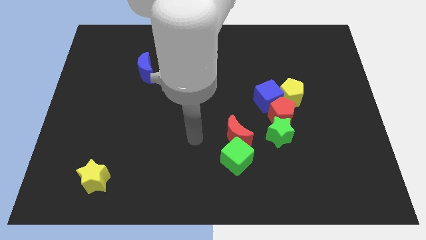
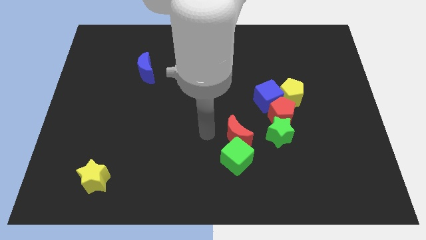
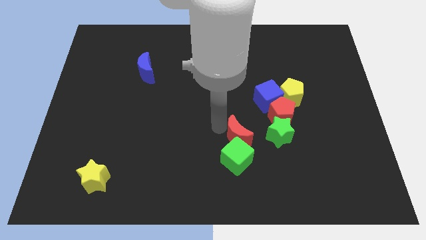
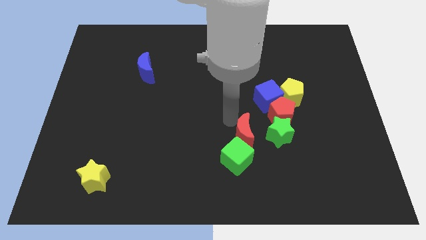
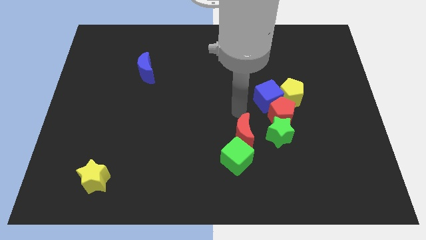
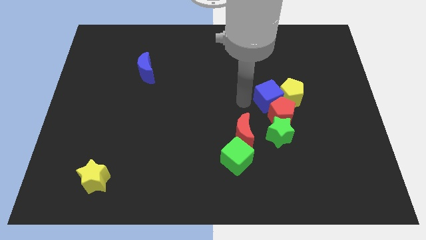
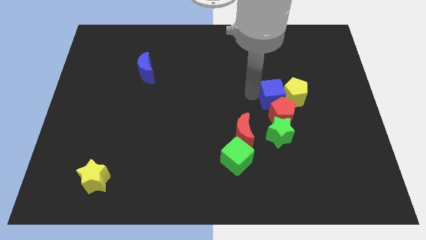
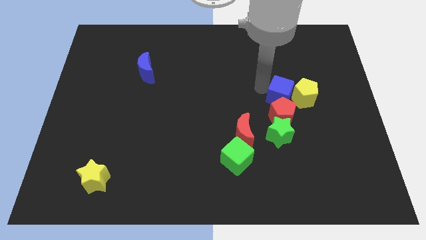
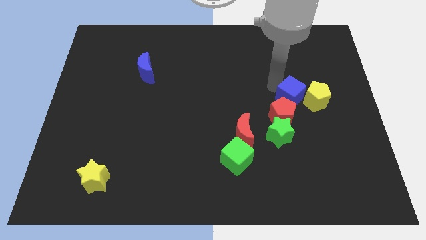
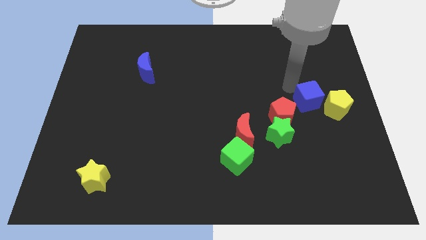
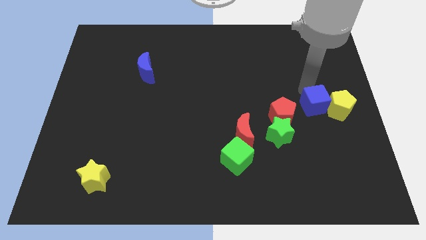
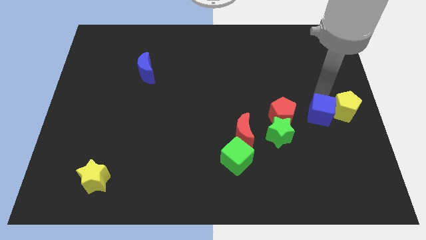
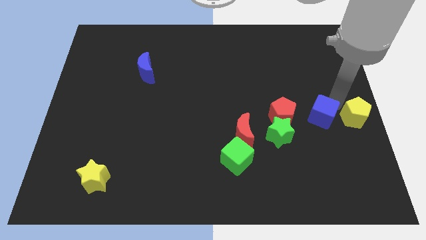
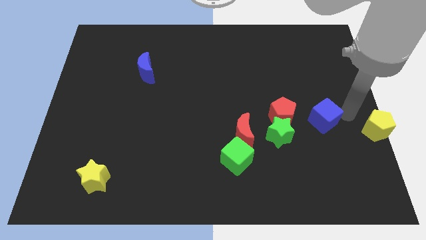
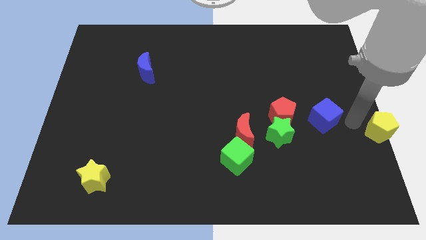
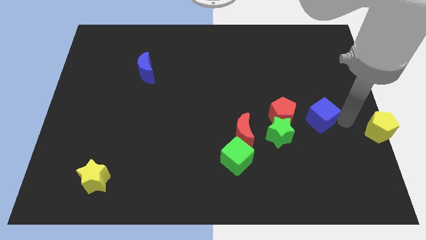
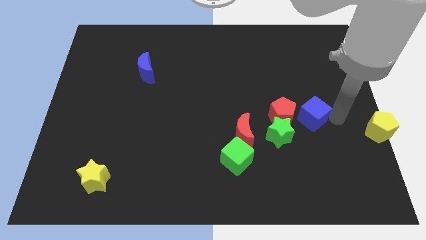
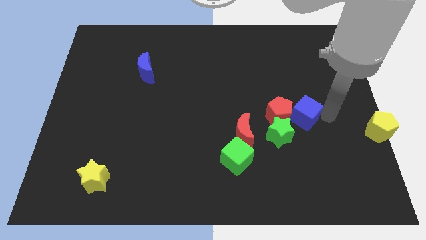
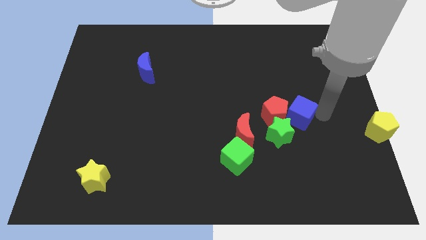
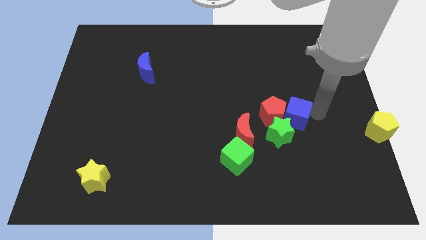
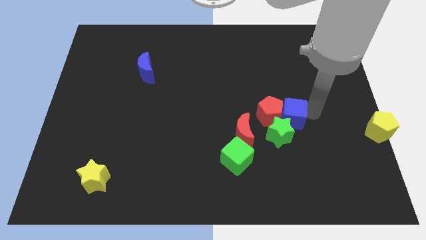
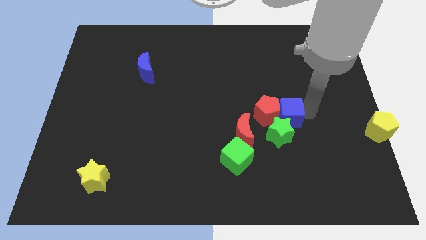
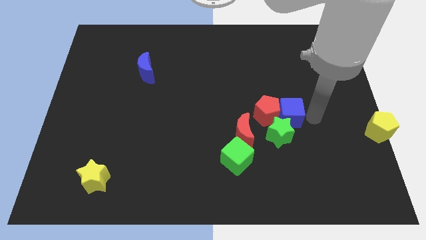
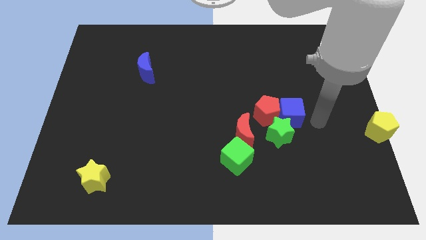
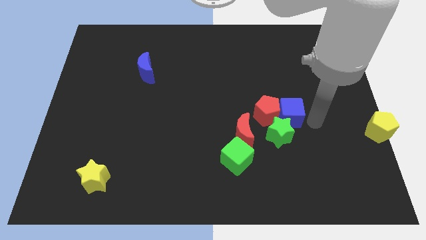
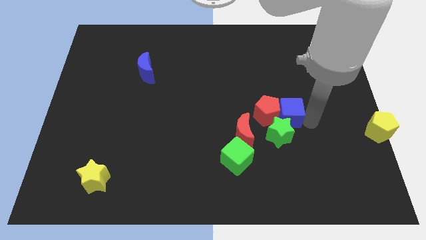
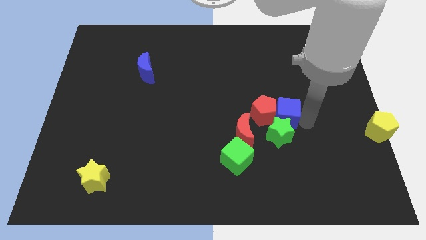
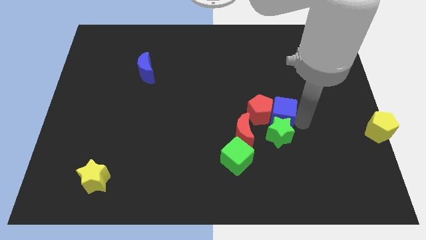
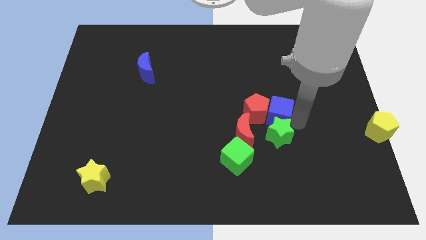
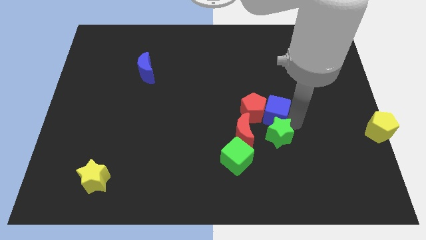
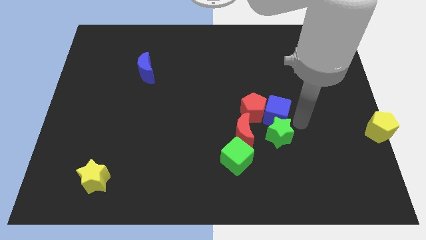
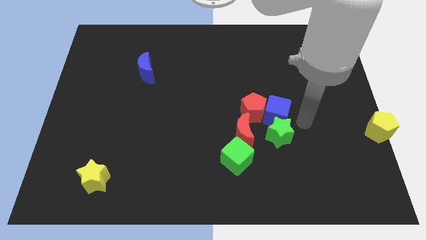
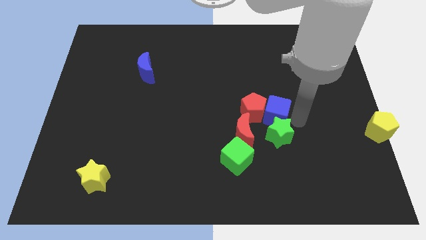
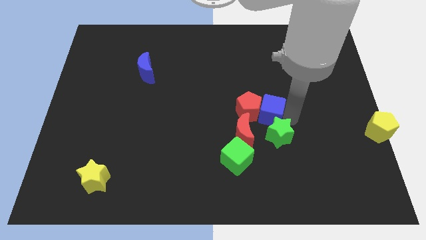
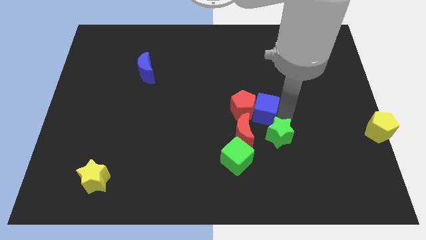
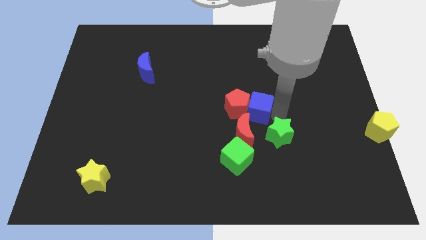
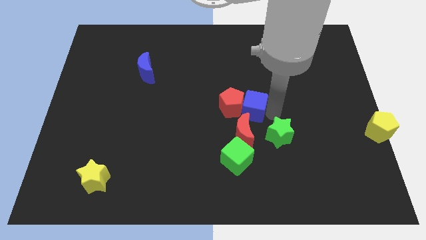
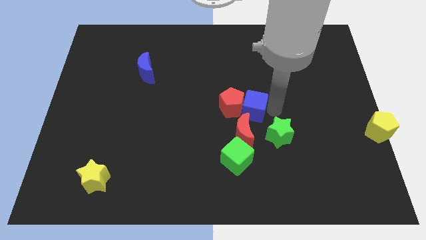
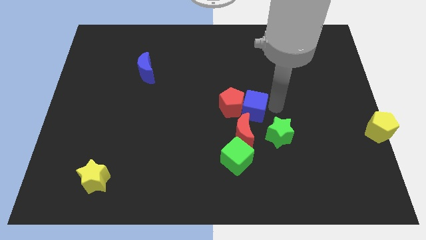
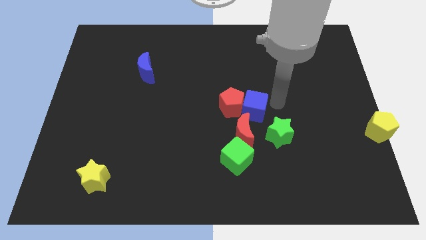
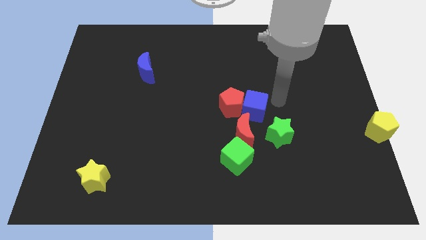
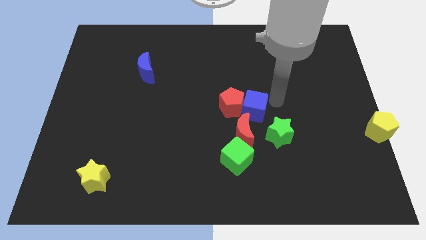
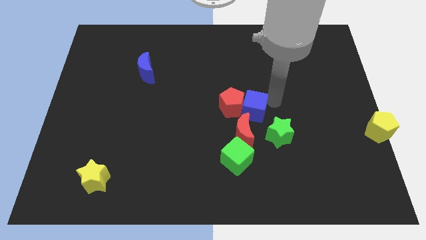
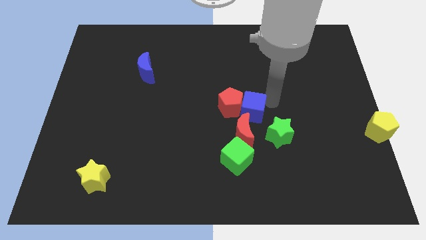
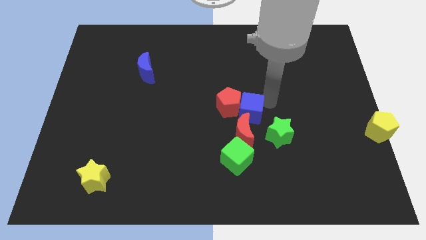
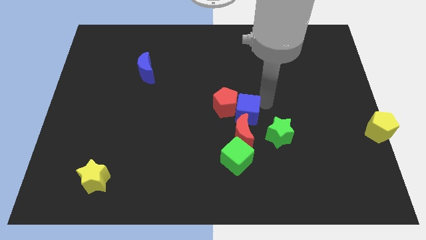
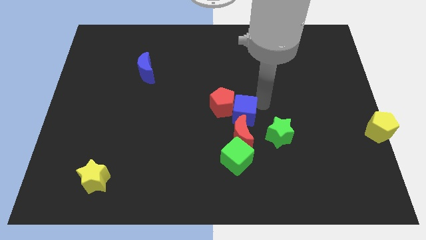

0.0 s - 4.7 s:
push the blue cube diagonally down and left slightly

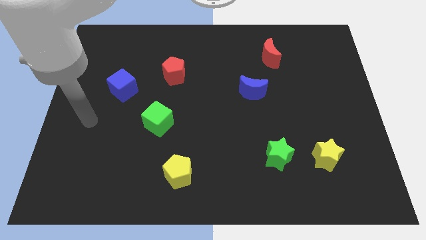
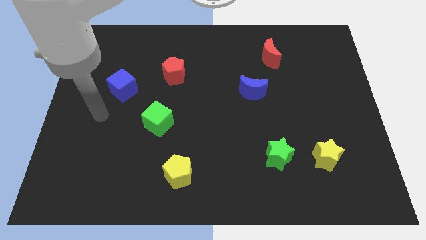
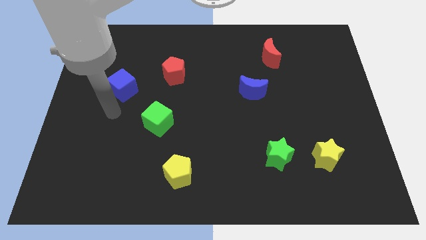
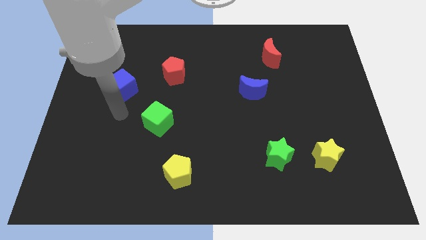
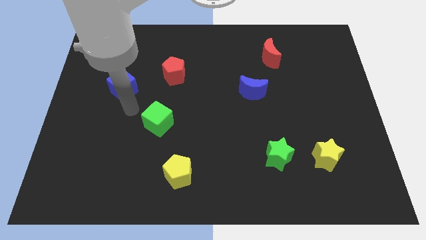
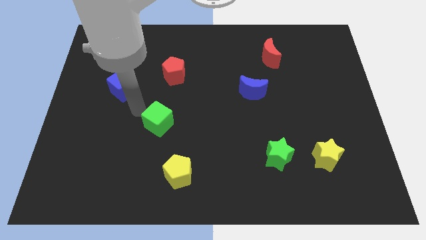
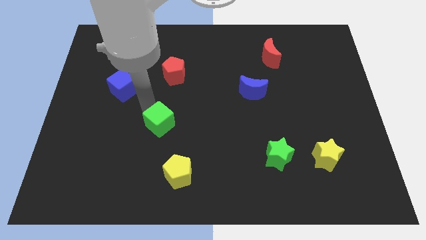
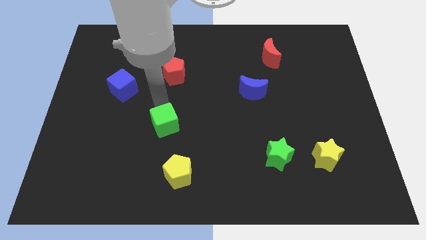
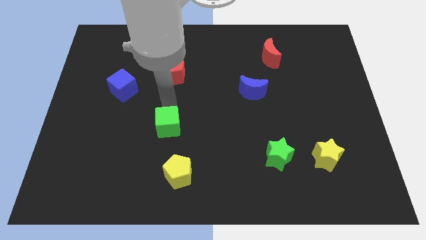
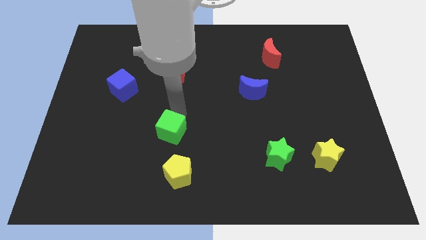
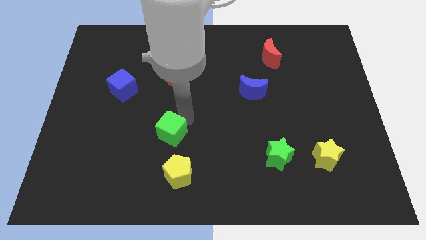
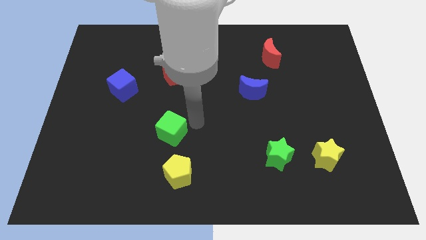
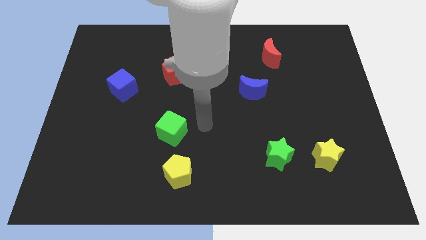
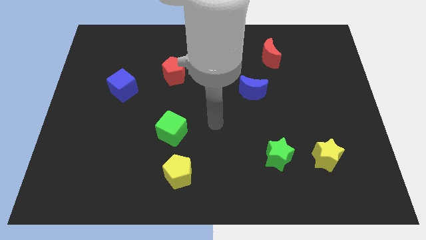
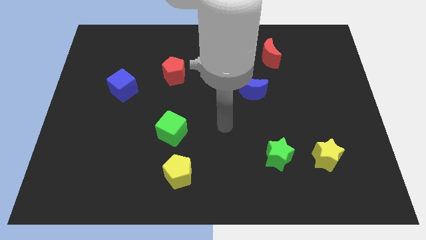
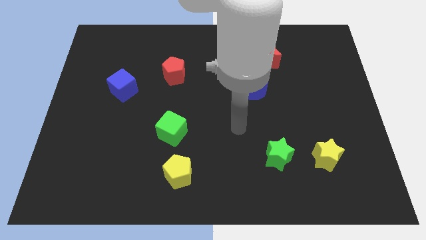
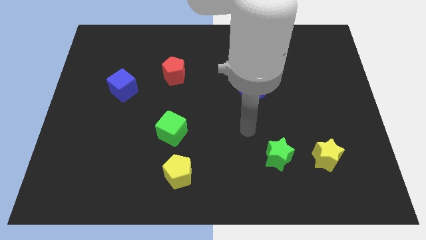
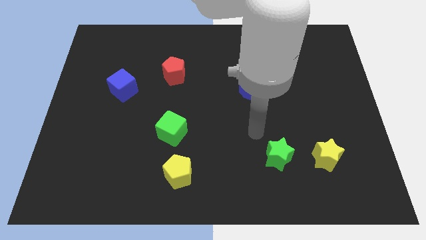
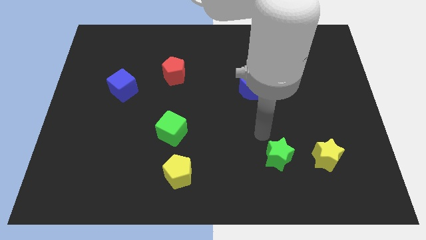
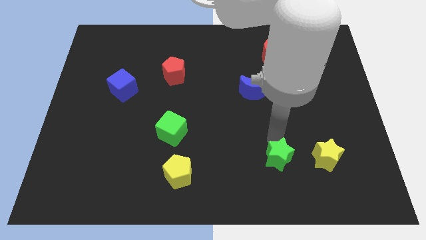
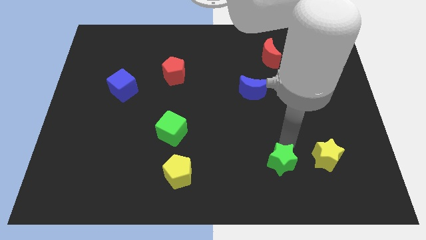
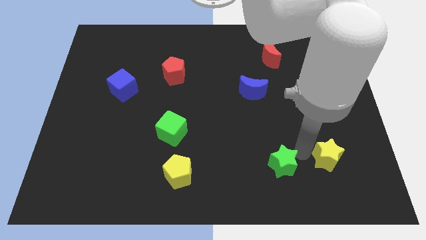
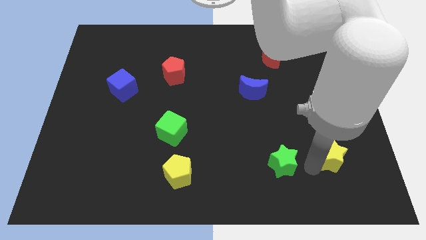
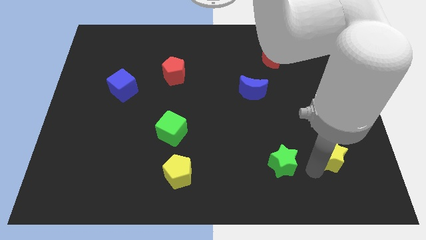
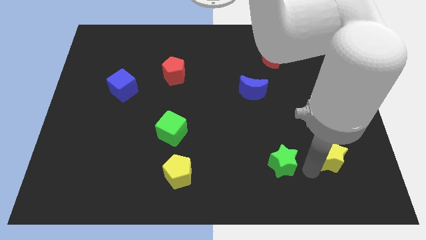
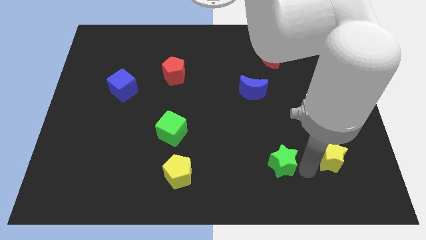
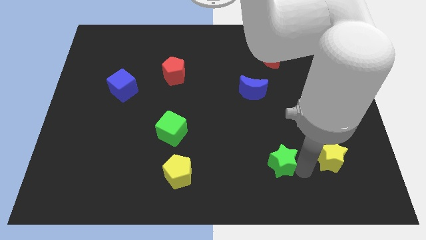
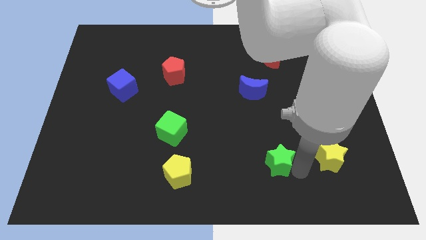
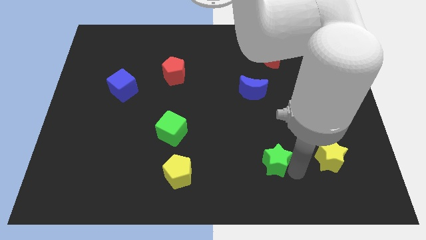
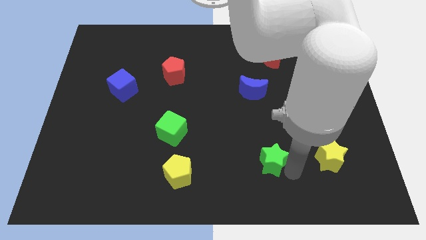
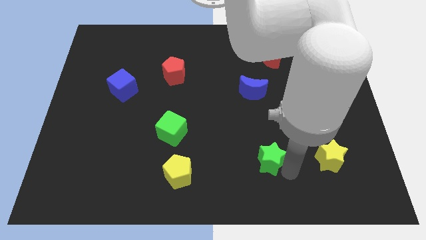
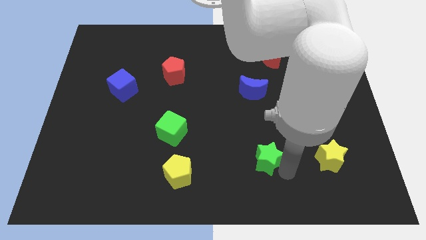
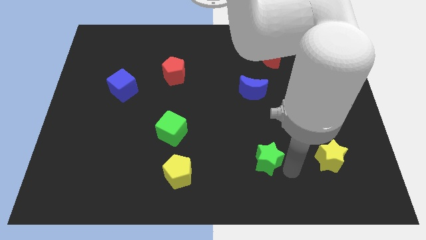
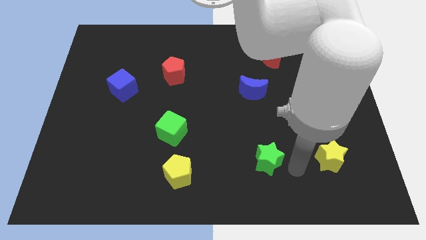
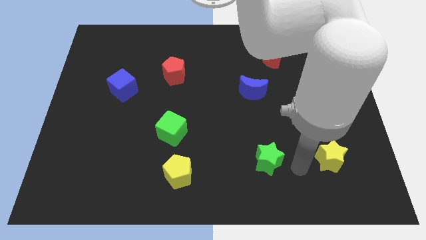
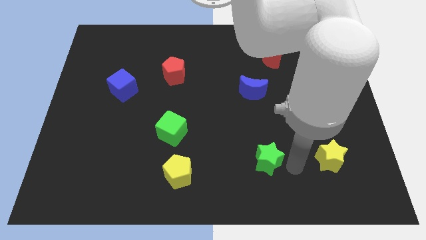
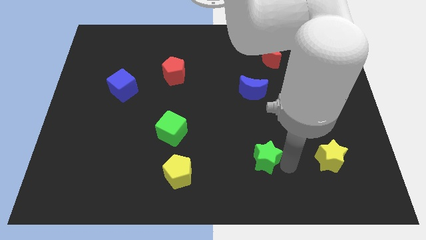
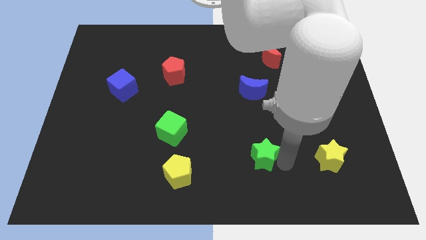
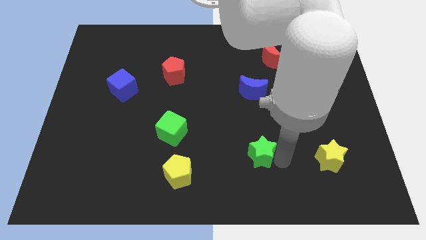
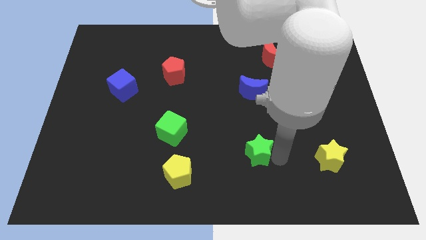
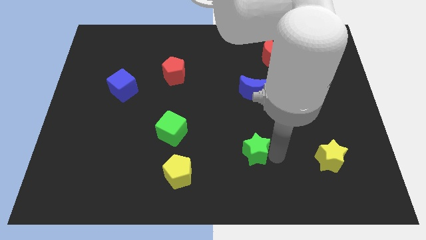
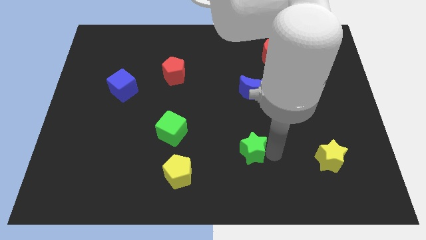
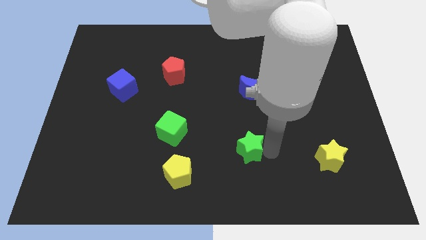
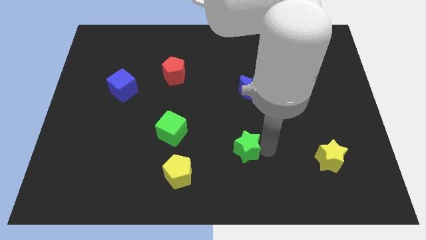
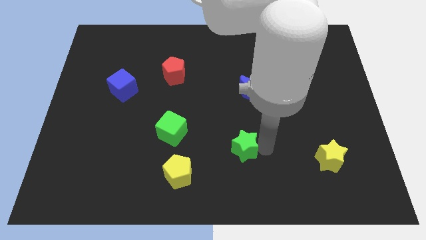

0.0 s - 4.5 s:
slide the green star a little to the left
